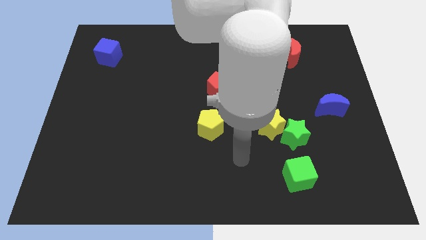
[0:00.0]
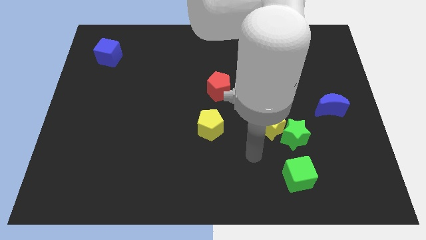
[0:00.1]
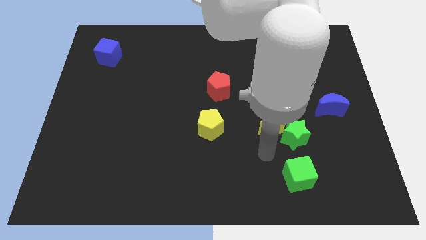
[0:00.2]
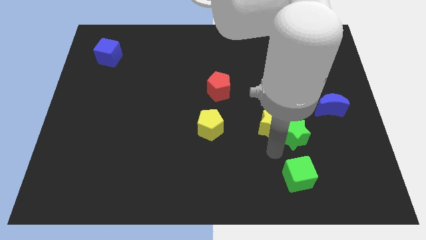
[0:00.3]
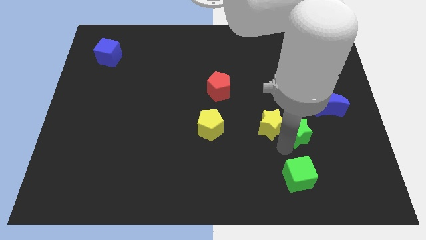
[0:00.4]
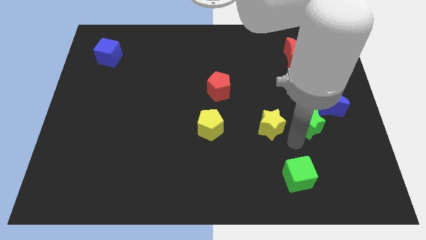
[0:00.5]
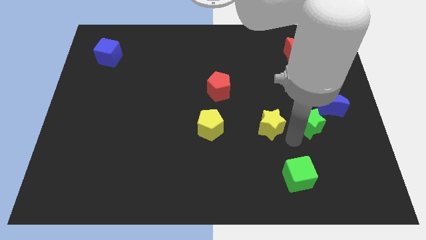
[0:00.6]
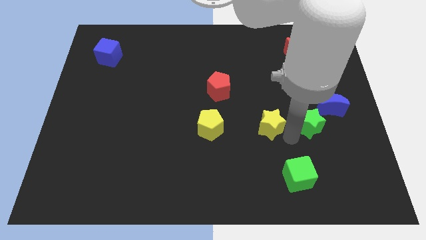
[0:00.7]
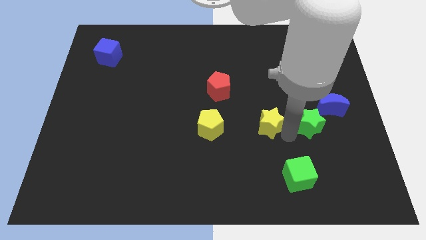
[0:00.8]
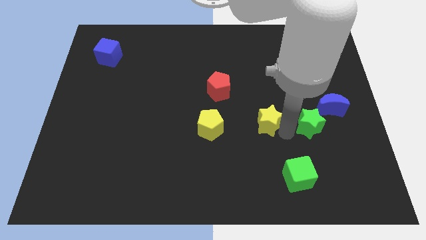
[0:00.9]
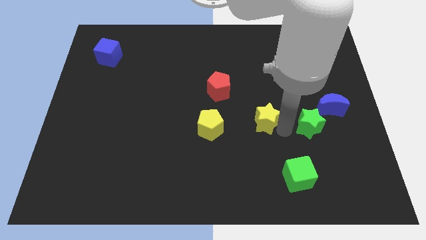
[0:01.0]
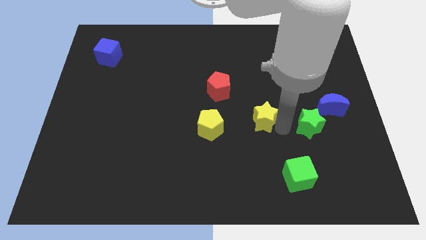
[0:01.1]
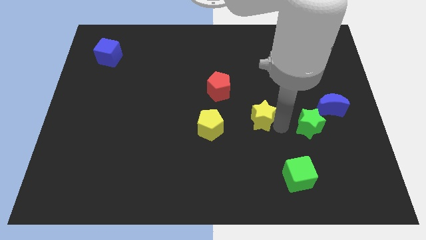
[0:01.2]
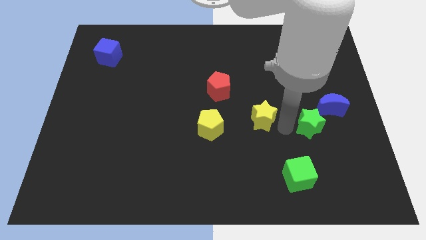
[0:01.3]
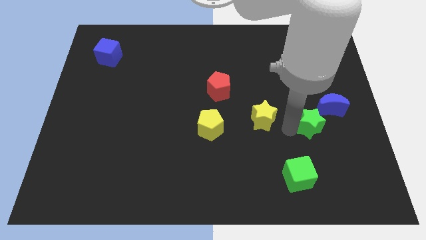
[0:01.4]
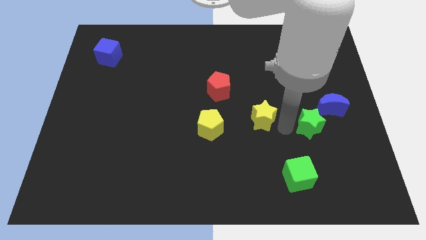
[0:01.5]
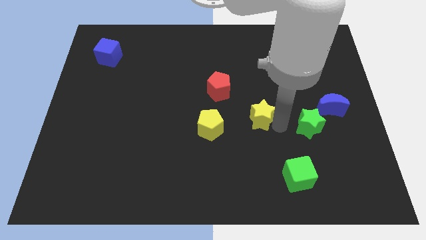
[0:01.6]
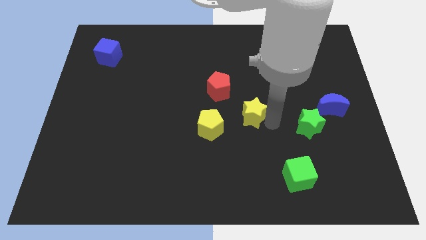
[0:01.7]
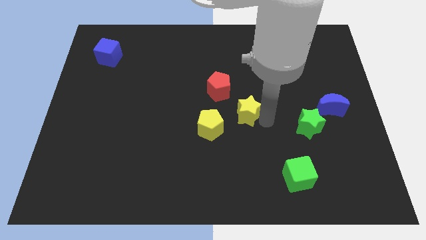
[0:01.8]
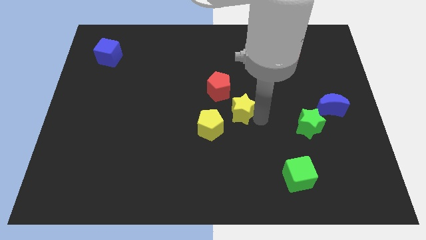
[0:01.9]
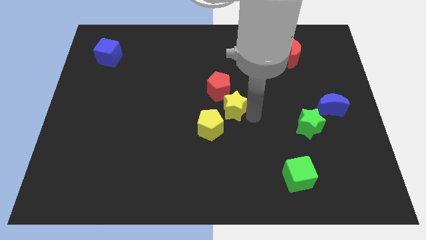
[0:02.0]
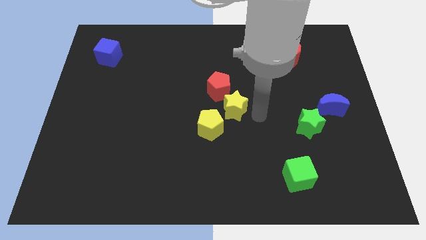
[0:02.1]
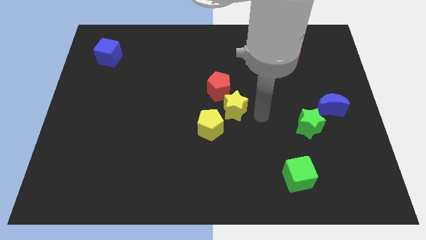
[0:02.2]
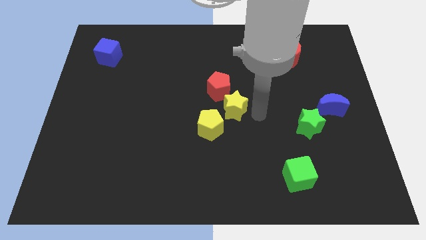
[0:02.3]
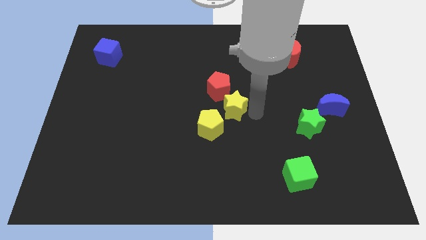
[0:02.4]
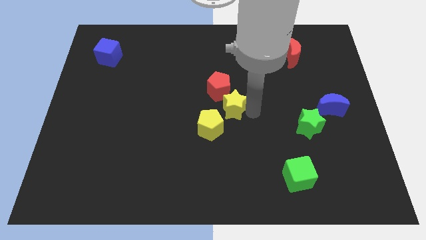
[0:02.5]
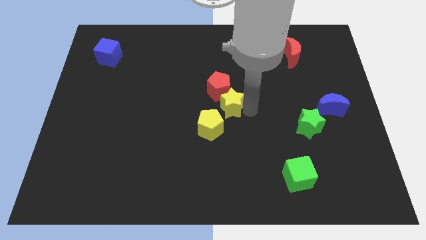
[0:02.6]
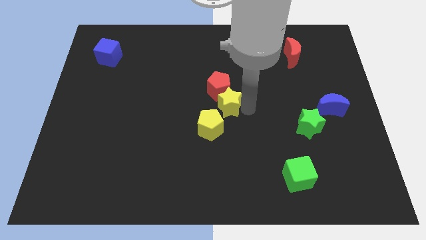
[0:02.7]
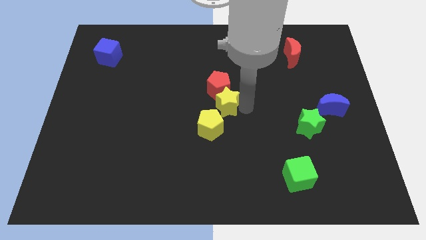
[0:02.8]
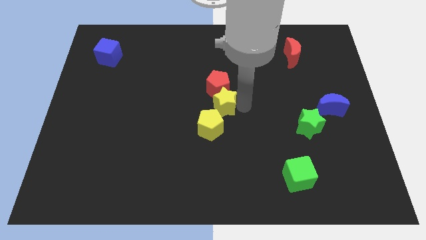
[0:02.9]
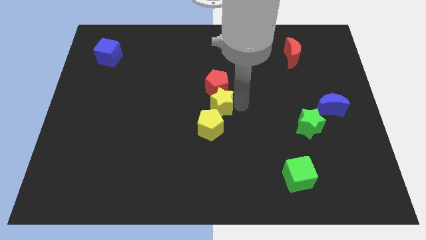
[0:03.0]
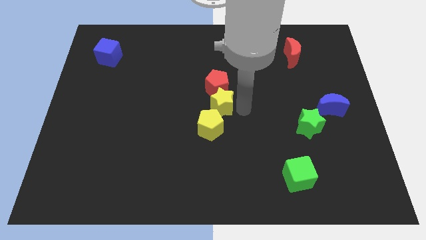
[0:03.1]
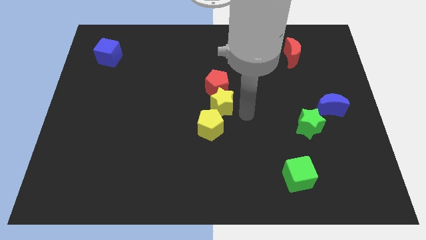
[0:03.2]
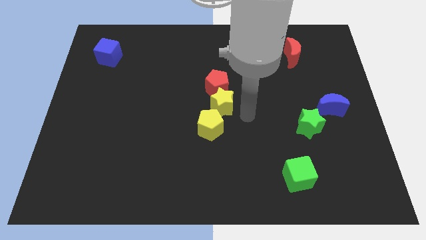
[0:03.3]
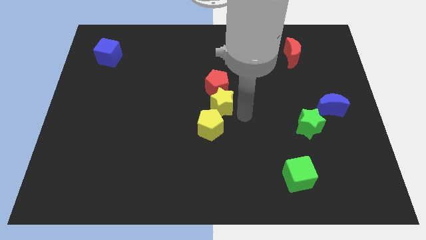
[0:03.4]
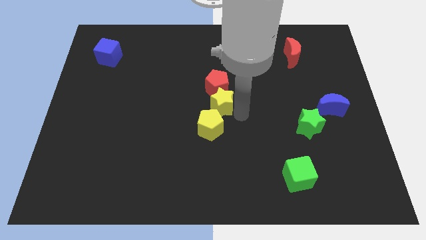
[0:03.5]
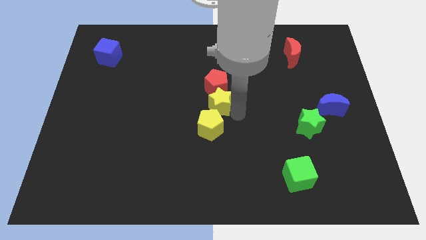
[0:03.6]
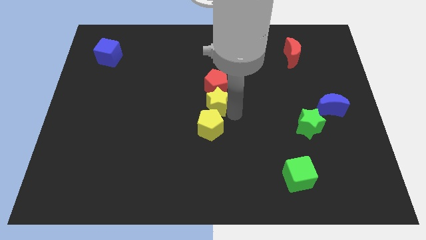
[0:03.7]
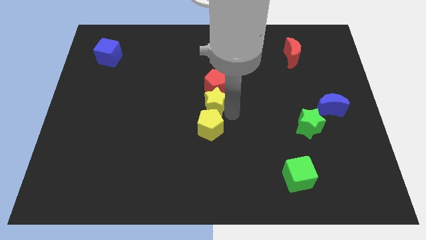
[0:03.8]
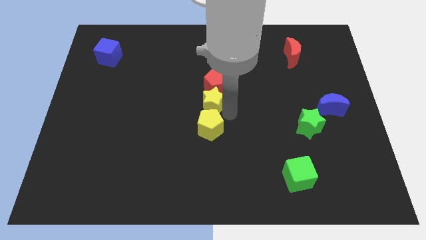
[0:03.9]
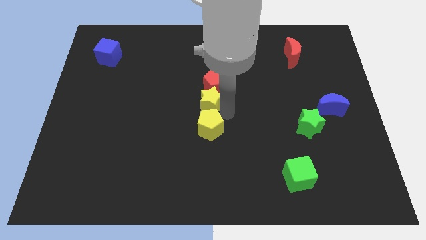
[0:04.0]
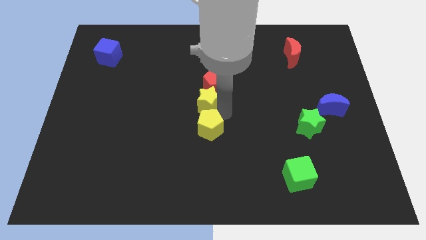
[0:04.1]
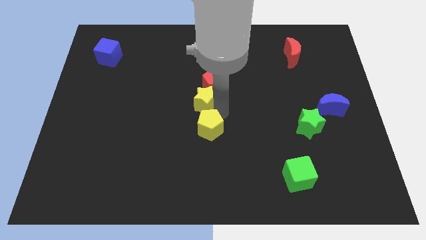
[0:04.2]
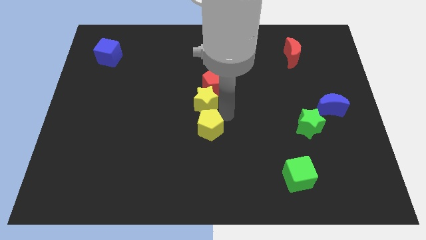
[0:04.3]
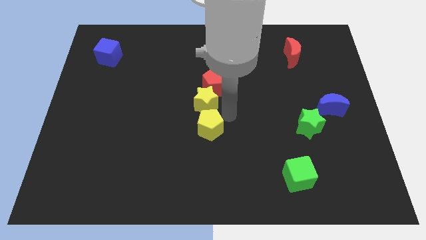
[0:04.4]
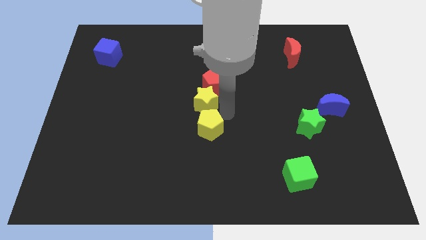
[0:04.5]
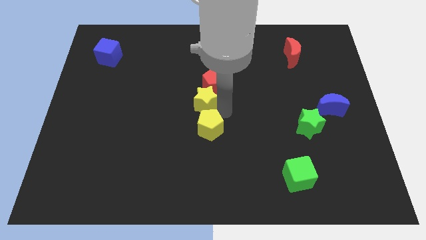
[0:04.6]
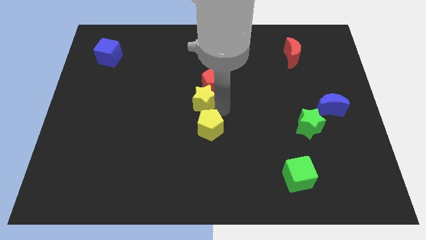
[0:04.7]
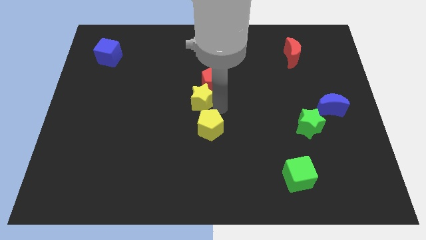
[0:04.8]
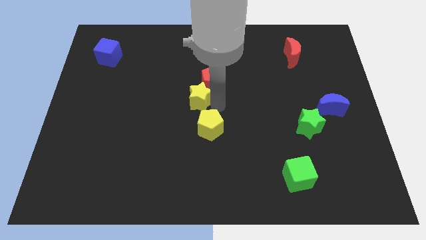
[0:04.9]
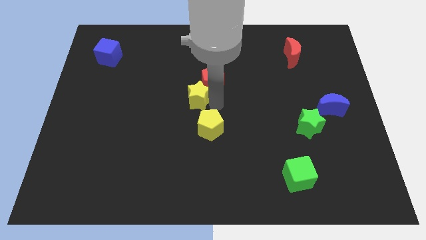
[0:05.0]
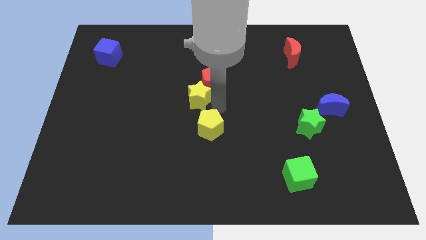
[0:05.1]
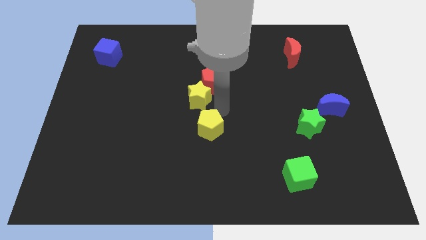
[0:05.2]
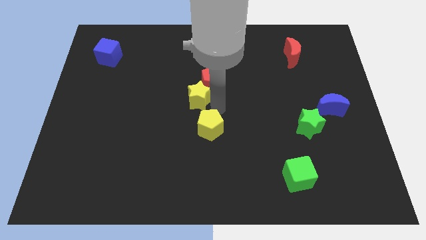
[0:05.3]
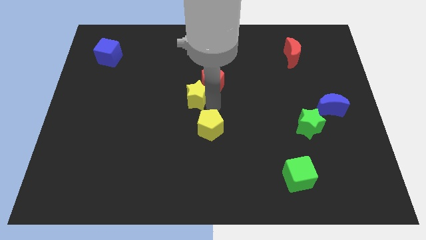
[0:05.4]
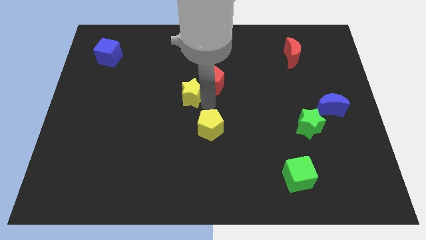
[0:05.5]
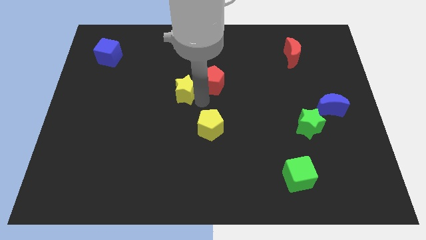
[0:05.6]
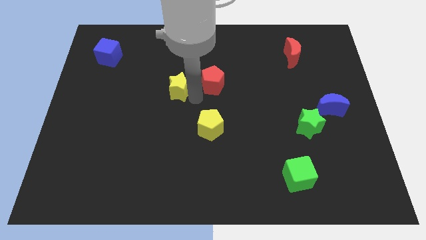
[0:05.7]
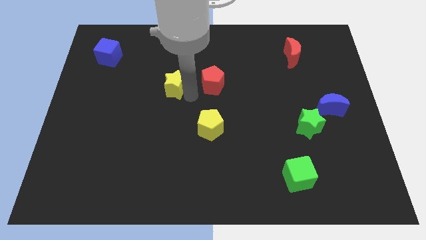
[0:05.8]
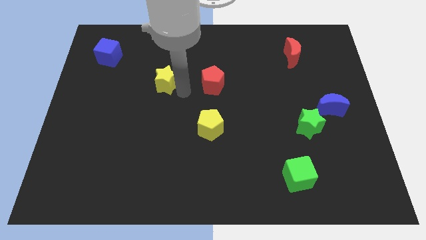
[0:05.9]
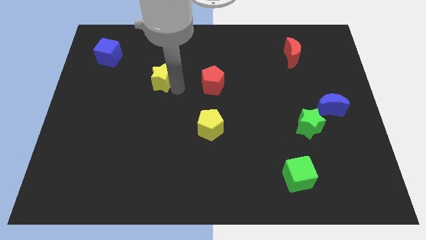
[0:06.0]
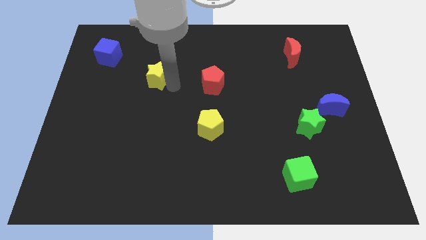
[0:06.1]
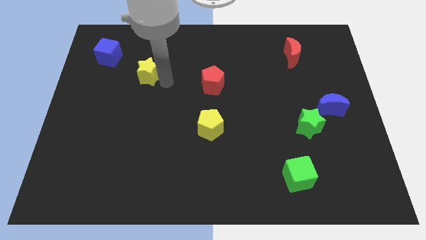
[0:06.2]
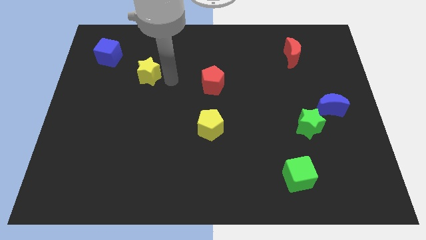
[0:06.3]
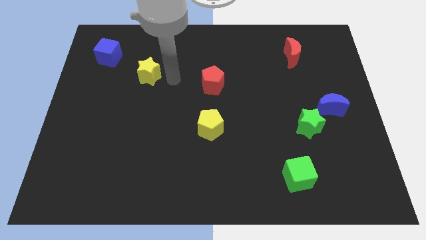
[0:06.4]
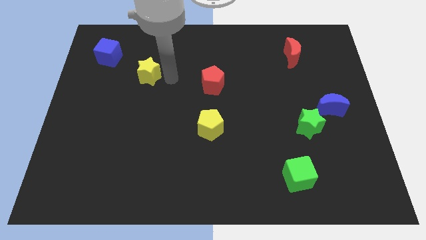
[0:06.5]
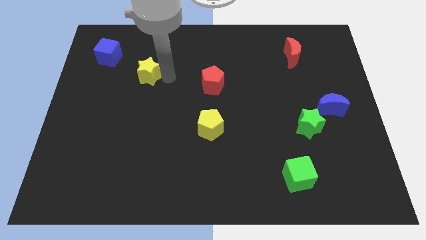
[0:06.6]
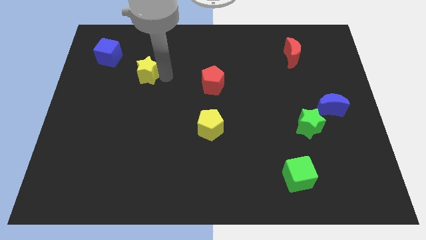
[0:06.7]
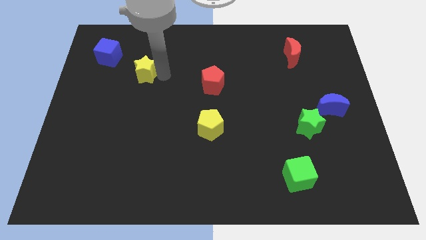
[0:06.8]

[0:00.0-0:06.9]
move the yellow star diagonally down and to the right of the blue cube
